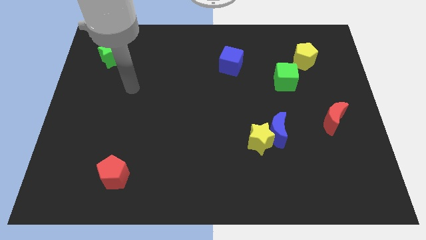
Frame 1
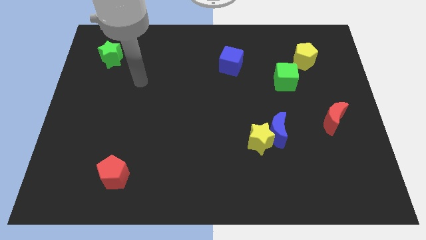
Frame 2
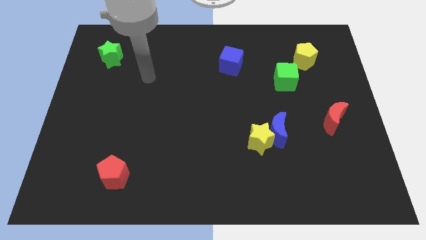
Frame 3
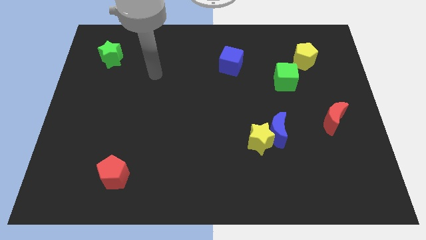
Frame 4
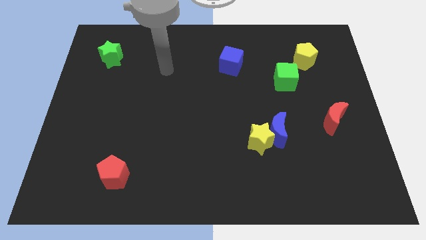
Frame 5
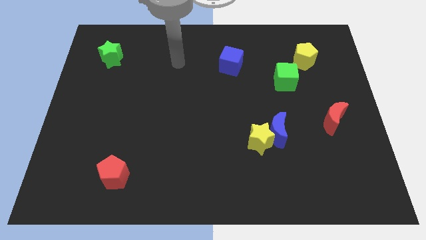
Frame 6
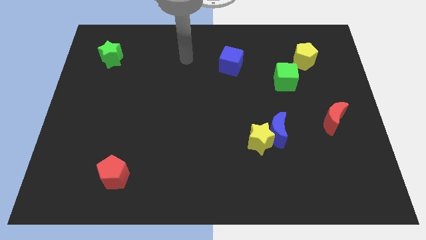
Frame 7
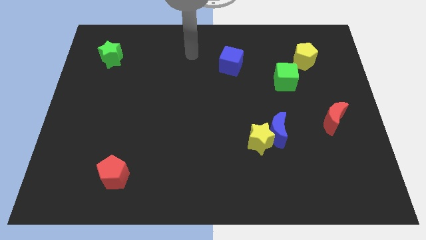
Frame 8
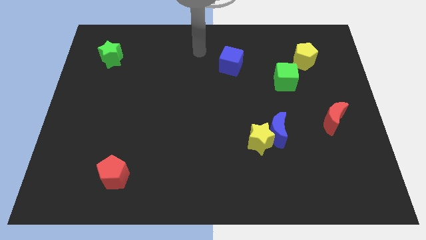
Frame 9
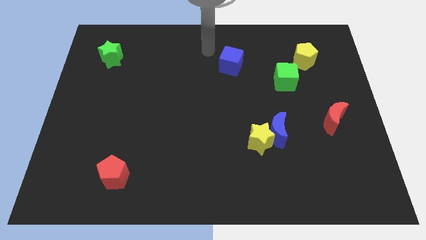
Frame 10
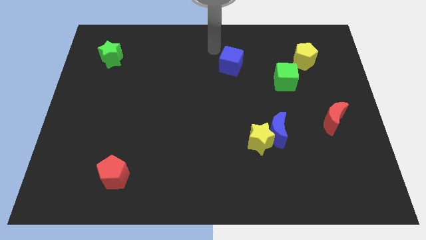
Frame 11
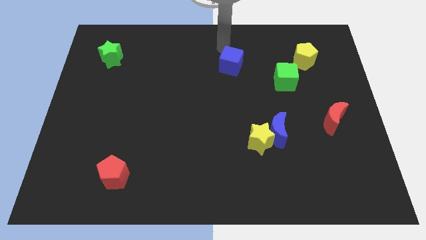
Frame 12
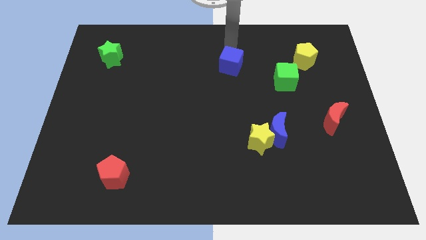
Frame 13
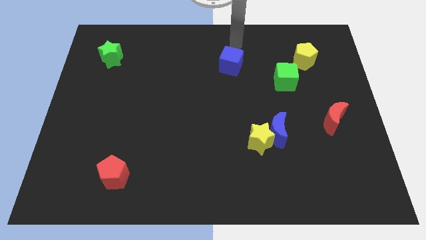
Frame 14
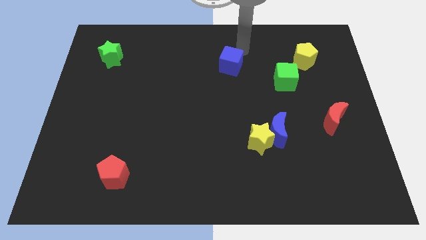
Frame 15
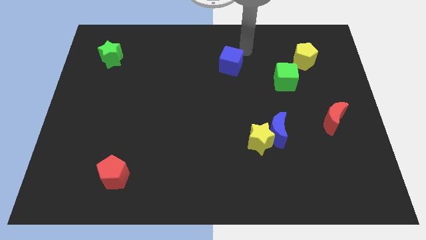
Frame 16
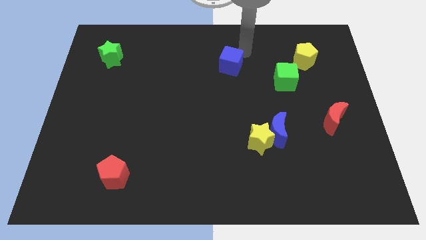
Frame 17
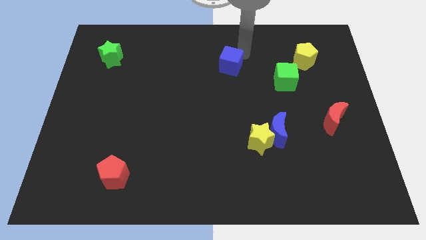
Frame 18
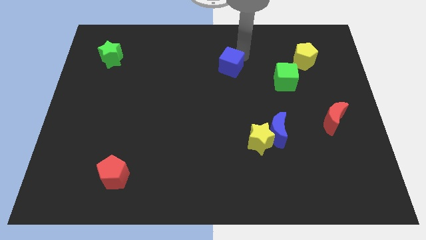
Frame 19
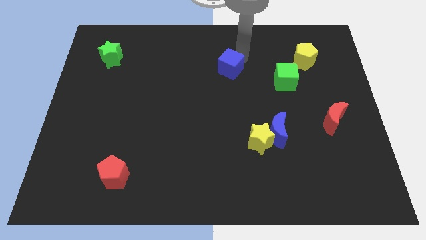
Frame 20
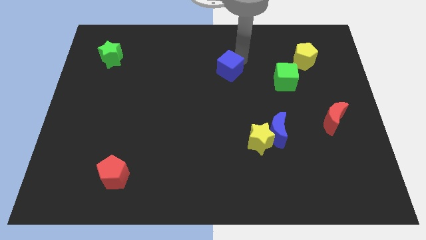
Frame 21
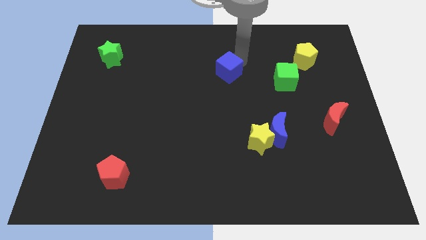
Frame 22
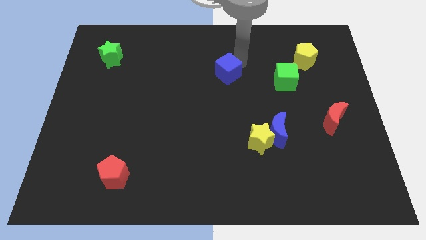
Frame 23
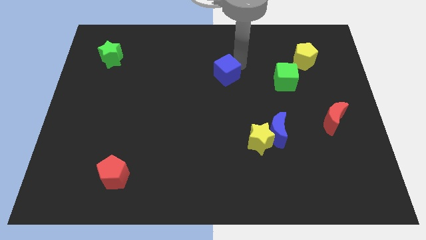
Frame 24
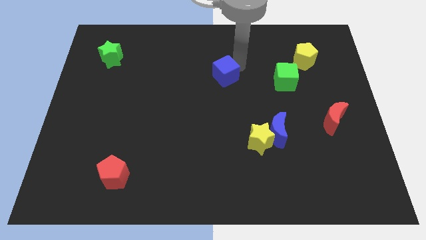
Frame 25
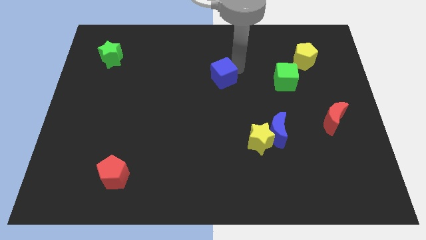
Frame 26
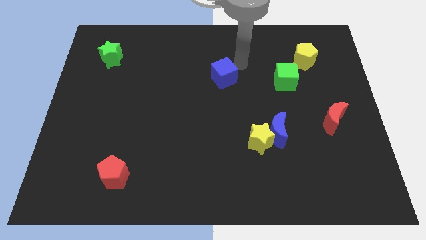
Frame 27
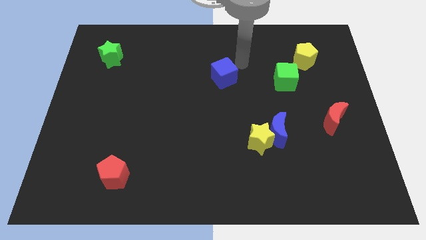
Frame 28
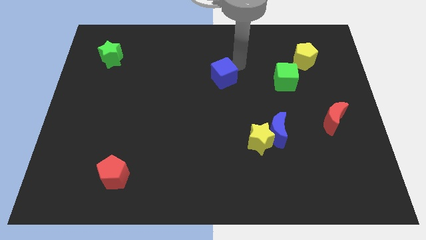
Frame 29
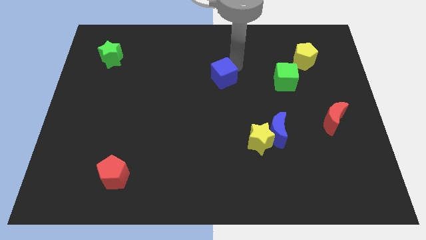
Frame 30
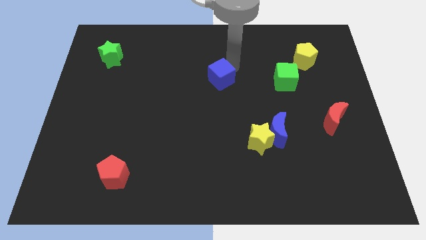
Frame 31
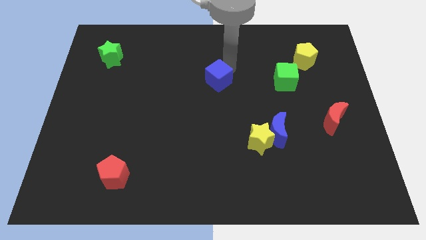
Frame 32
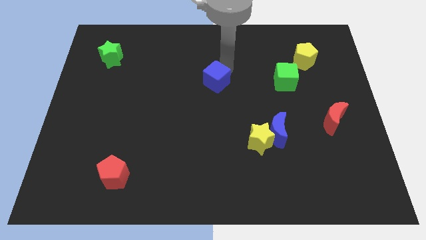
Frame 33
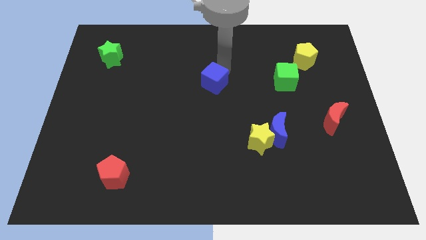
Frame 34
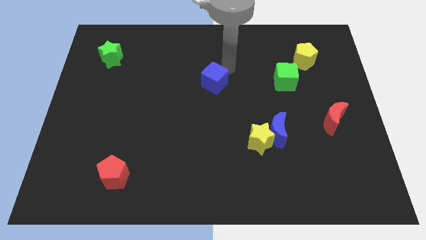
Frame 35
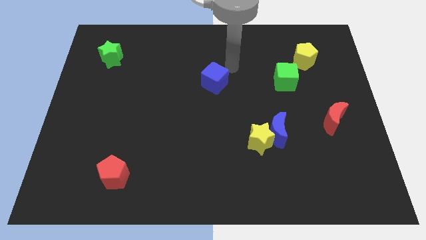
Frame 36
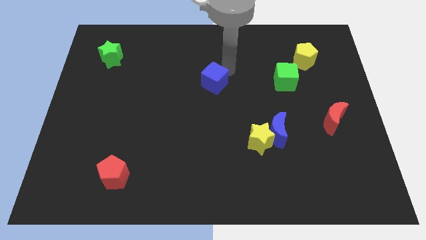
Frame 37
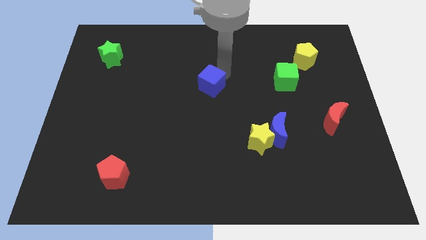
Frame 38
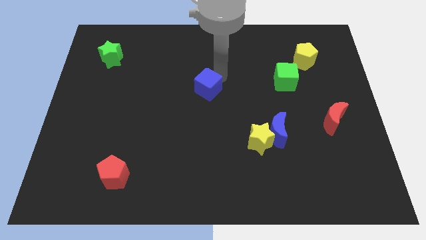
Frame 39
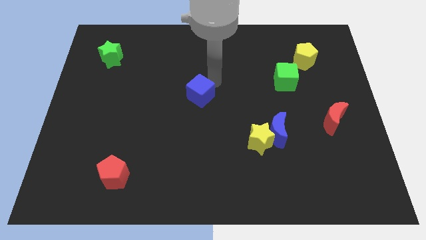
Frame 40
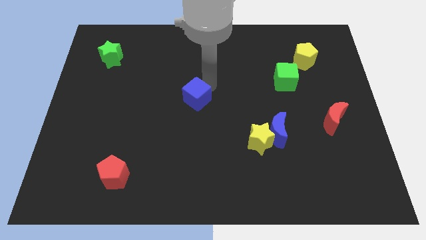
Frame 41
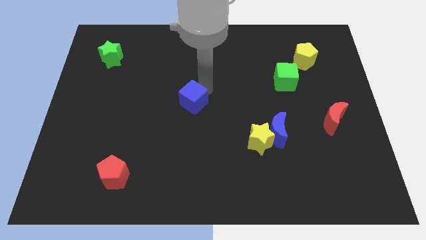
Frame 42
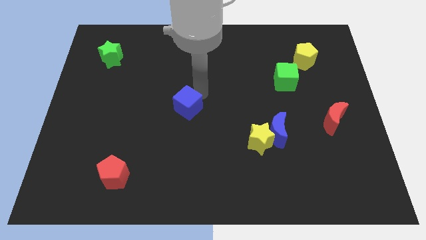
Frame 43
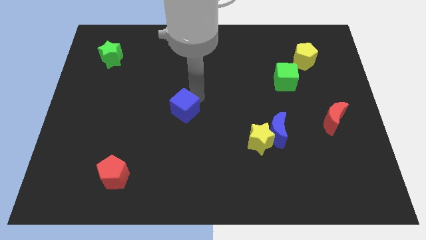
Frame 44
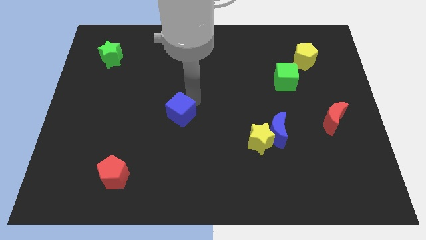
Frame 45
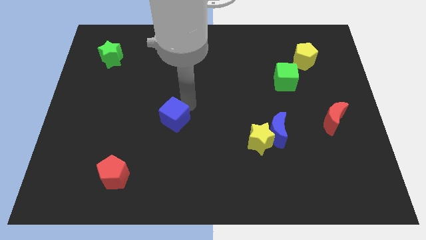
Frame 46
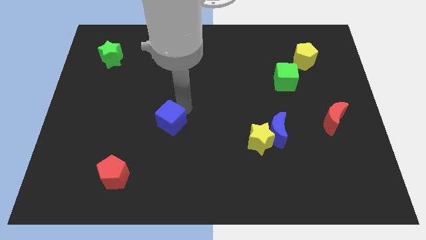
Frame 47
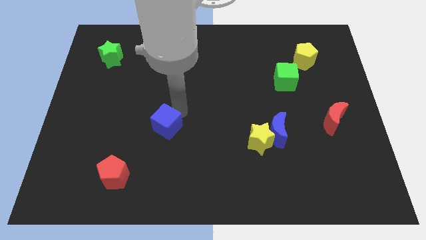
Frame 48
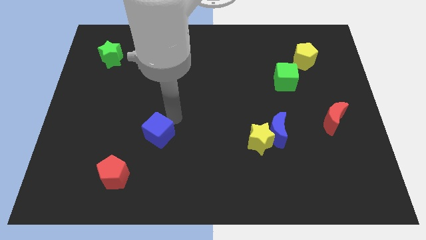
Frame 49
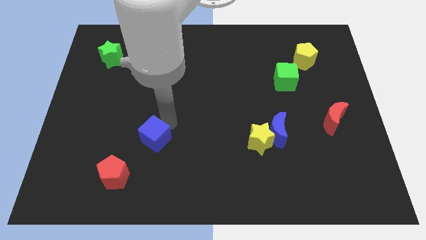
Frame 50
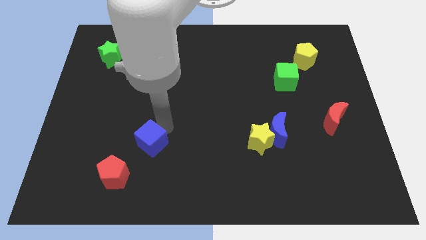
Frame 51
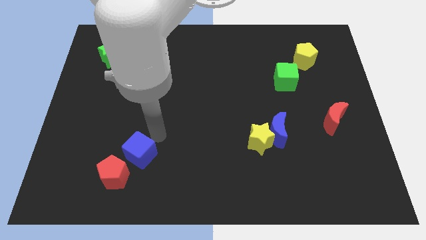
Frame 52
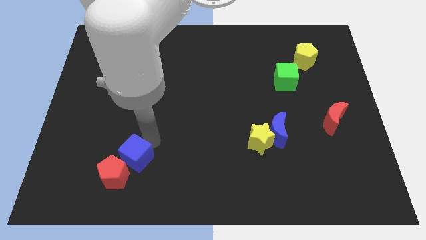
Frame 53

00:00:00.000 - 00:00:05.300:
put the blue cube next to the red pentagon

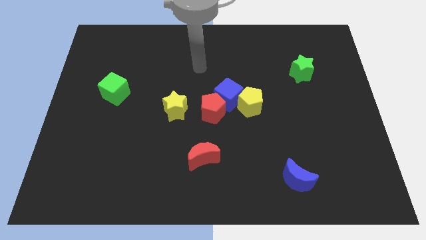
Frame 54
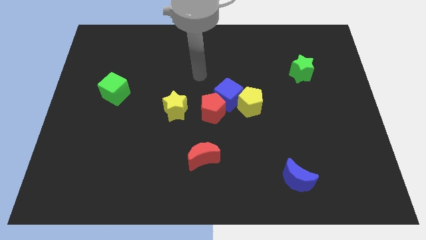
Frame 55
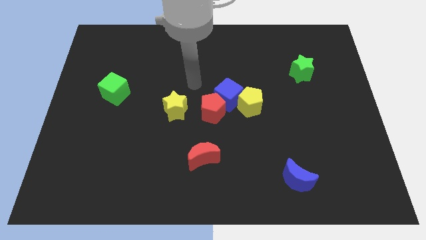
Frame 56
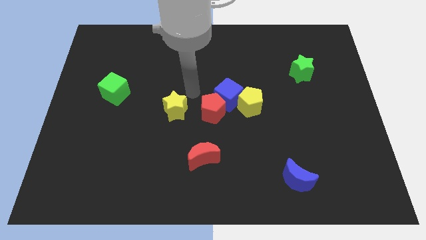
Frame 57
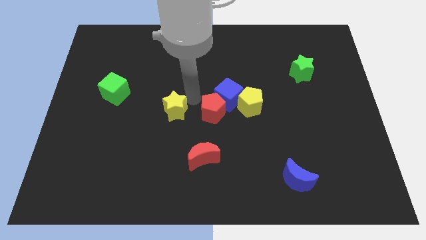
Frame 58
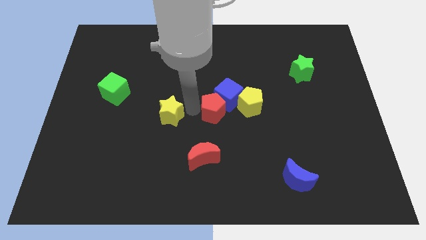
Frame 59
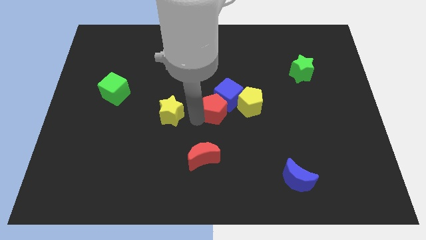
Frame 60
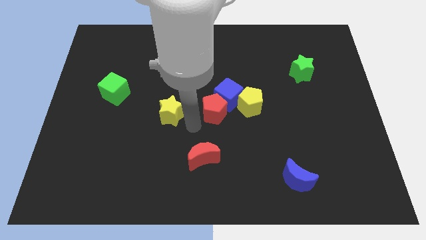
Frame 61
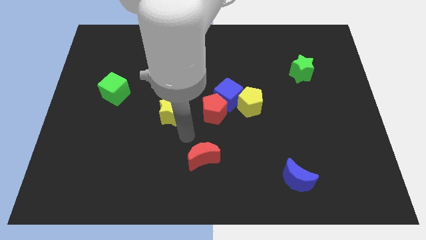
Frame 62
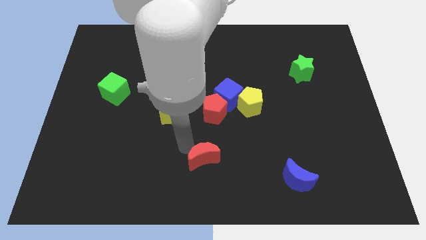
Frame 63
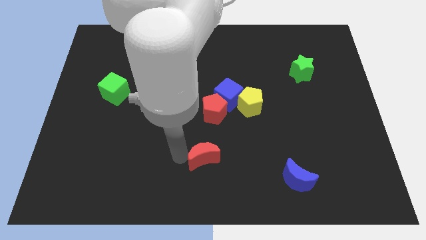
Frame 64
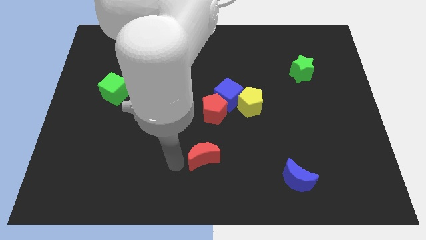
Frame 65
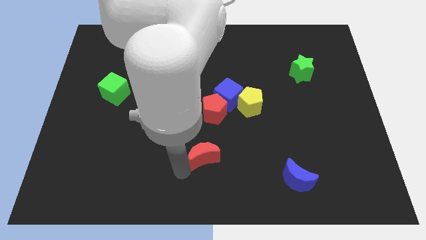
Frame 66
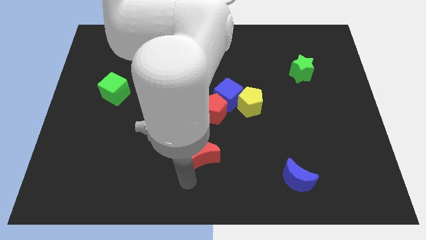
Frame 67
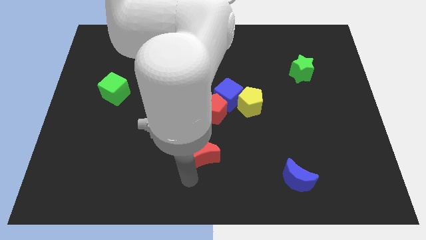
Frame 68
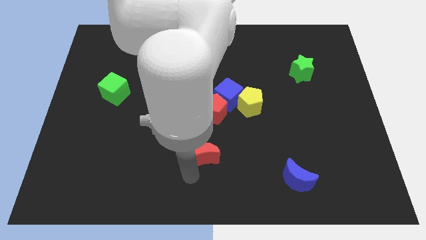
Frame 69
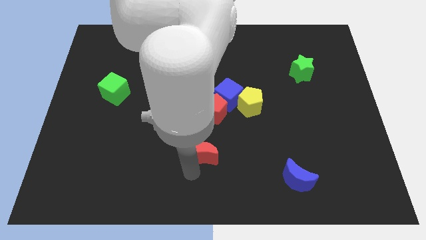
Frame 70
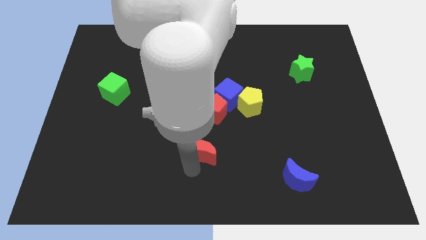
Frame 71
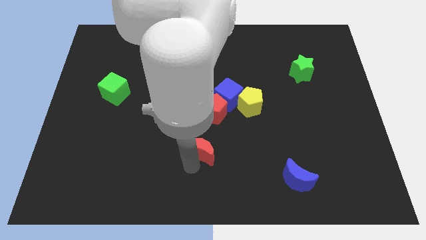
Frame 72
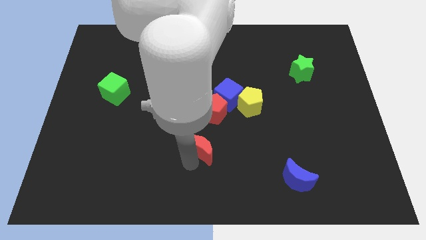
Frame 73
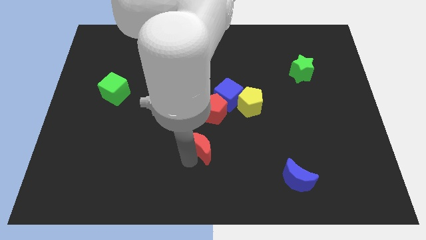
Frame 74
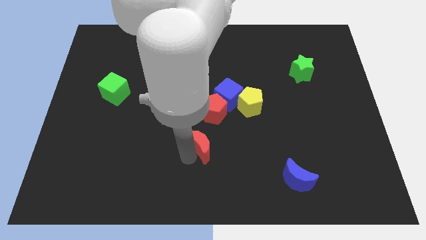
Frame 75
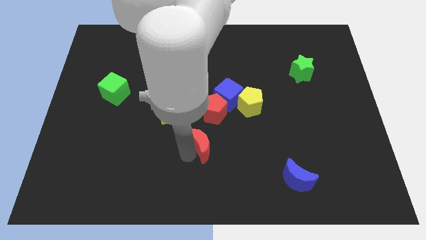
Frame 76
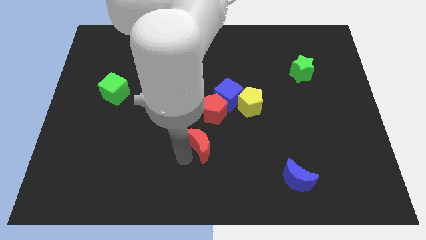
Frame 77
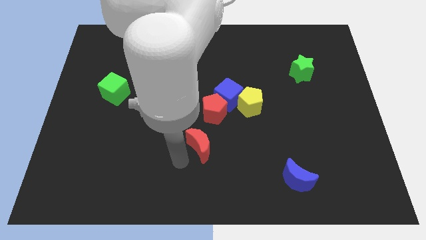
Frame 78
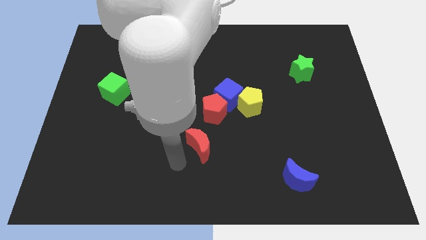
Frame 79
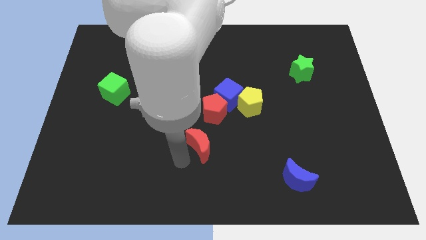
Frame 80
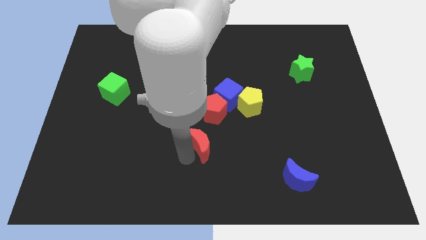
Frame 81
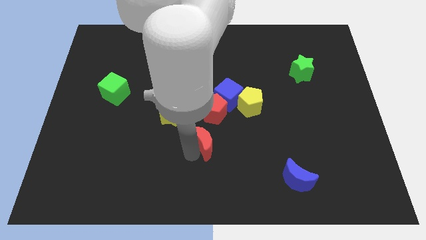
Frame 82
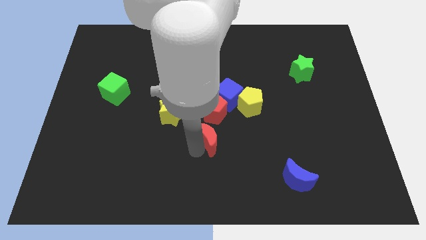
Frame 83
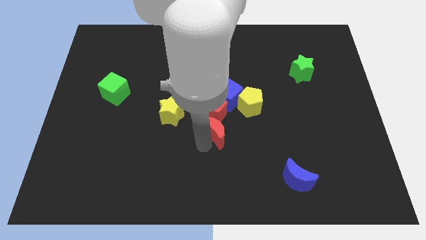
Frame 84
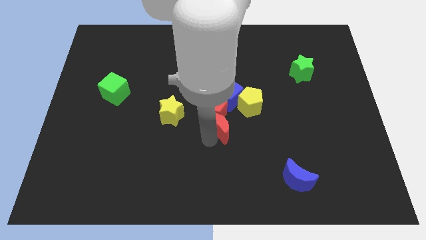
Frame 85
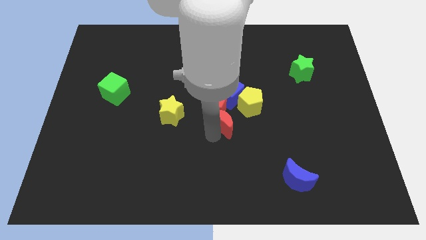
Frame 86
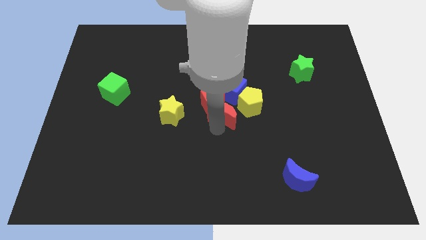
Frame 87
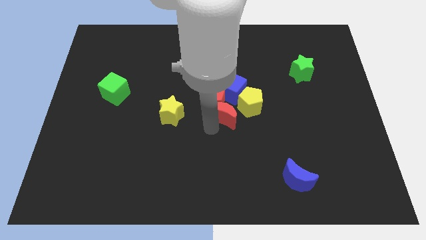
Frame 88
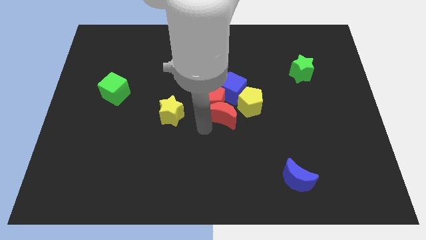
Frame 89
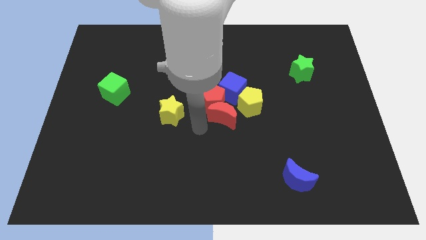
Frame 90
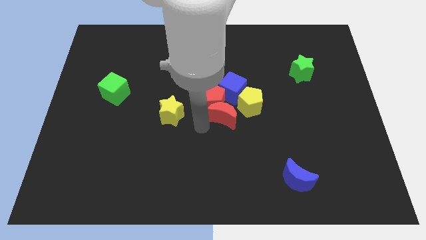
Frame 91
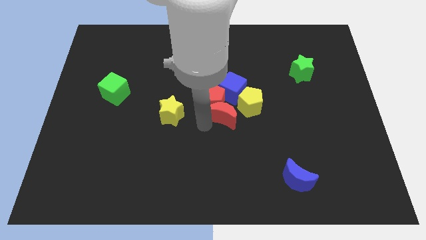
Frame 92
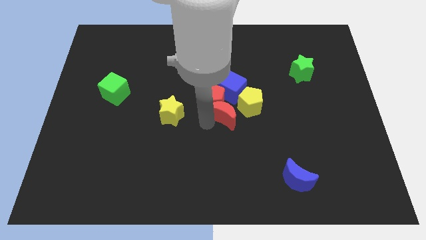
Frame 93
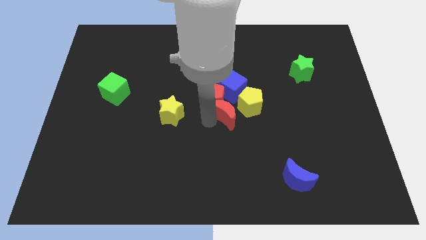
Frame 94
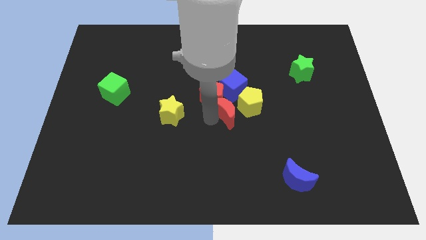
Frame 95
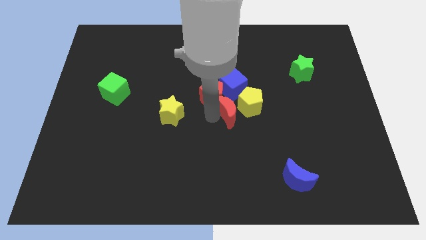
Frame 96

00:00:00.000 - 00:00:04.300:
move the red moon to the yellow pentagon
